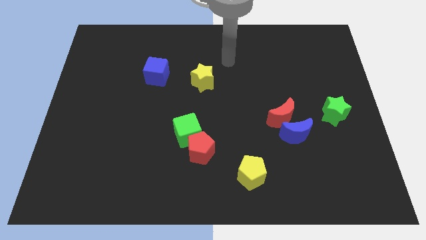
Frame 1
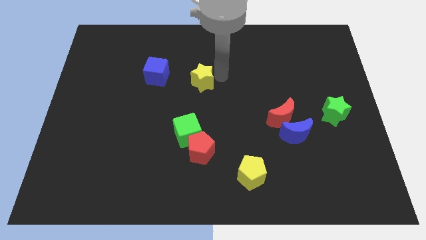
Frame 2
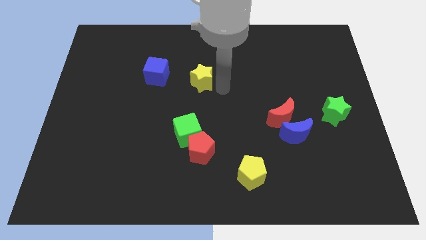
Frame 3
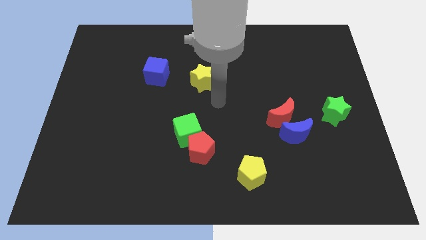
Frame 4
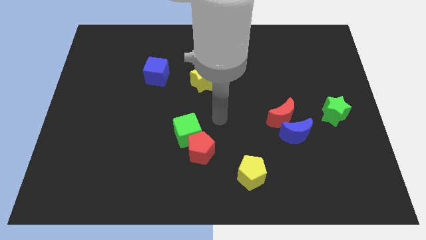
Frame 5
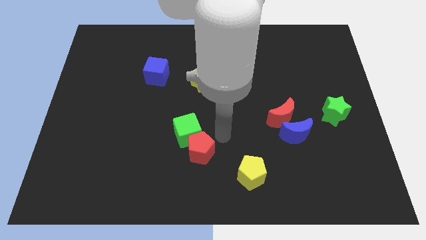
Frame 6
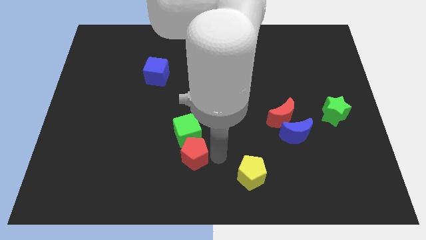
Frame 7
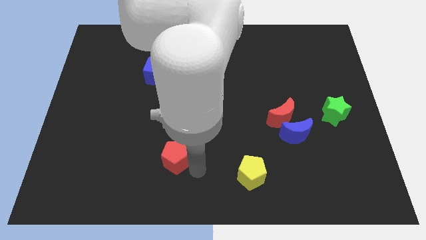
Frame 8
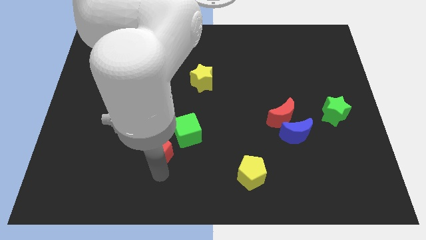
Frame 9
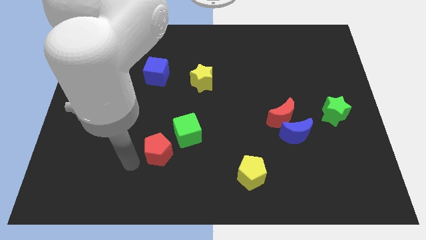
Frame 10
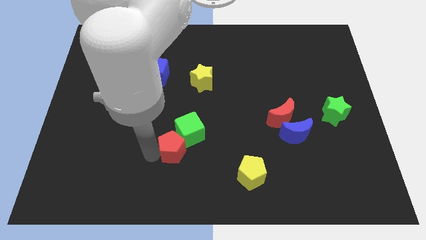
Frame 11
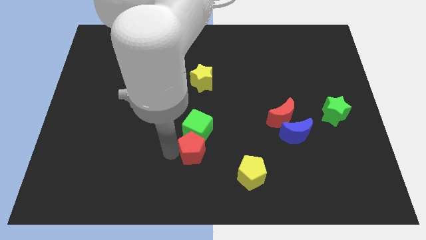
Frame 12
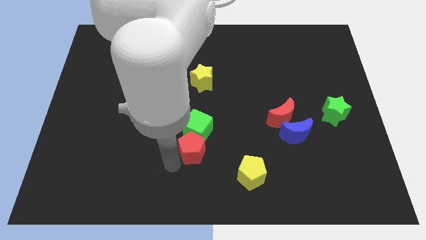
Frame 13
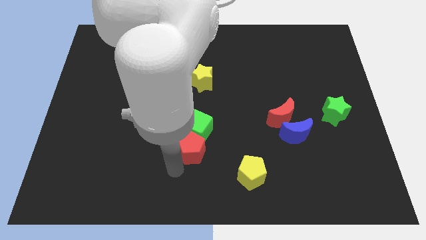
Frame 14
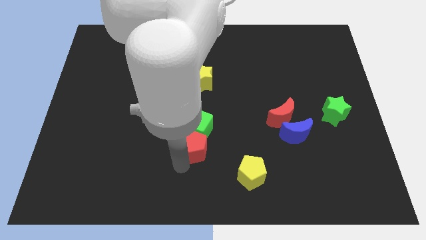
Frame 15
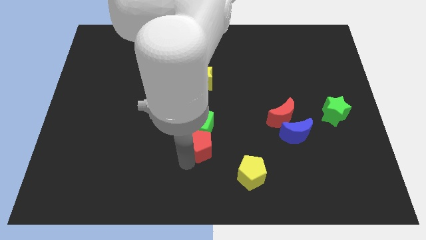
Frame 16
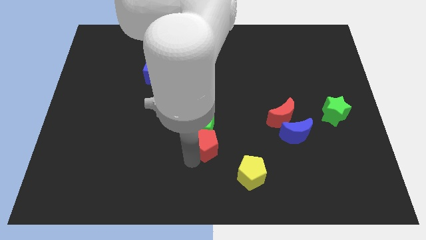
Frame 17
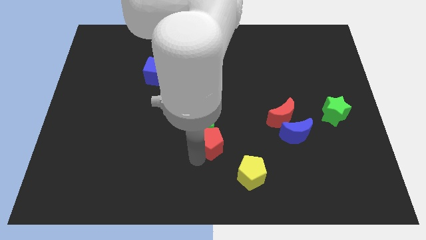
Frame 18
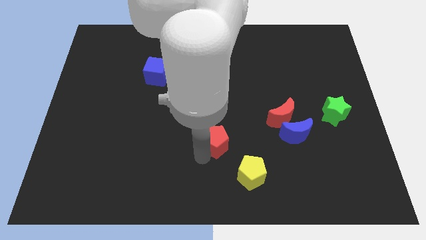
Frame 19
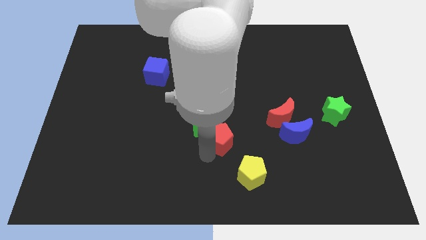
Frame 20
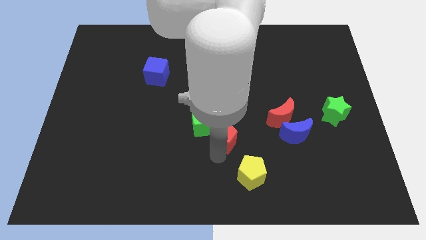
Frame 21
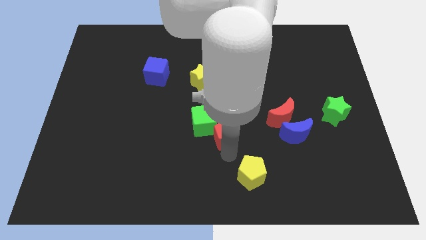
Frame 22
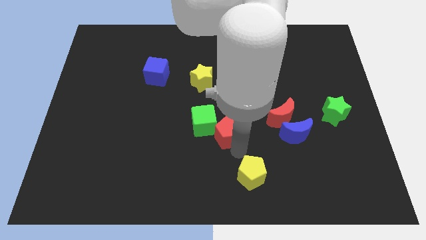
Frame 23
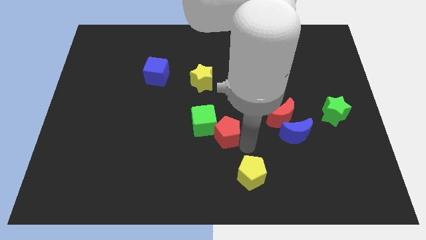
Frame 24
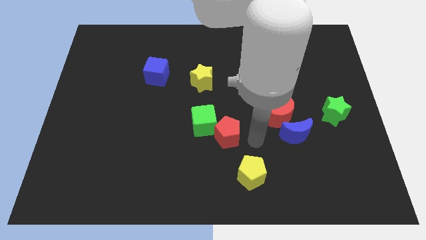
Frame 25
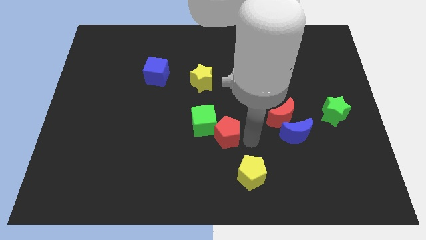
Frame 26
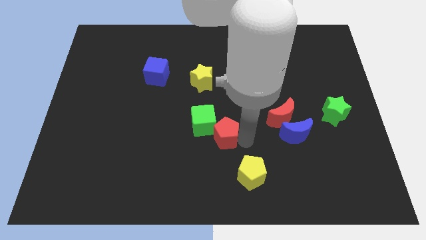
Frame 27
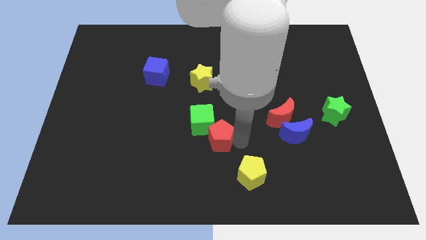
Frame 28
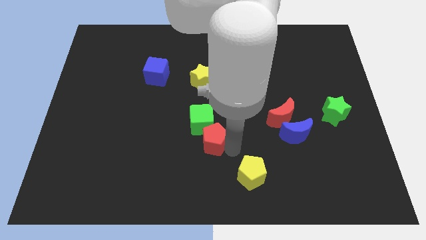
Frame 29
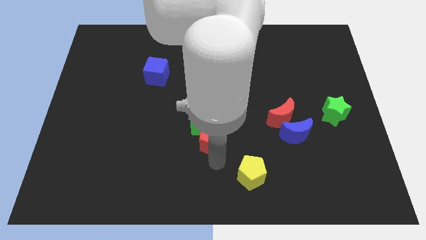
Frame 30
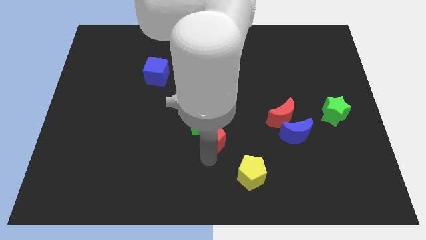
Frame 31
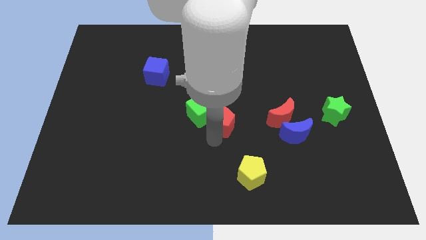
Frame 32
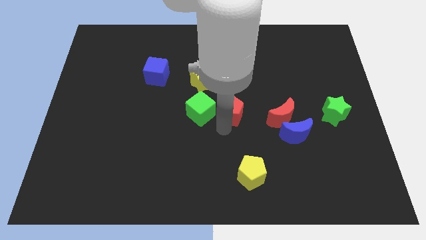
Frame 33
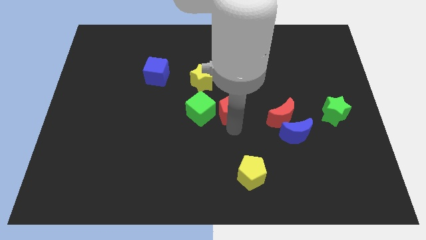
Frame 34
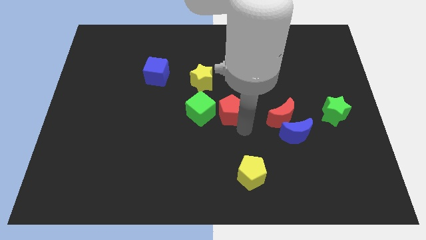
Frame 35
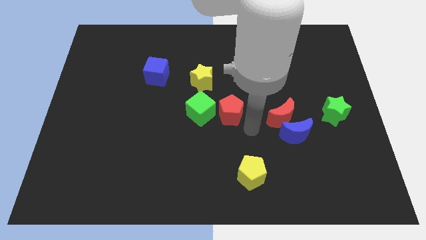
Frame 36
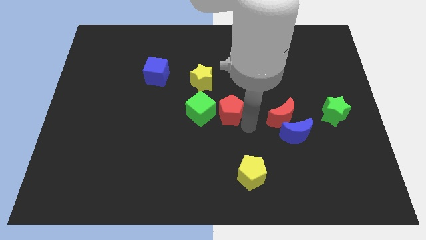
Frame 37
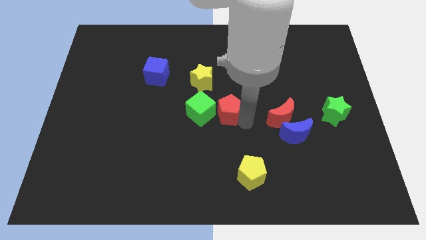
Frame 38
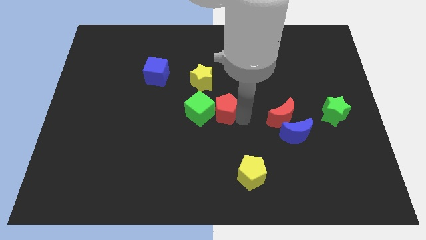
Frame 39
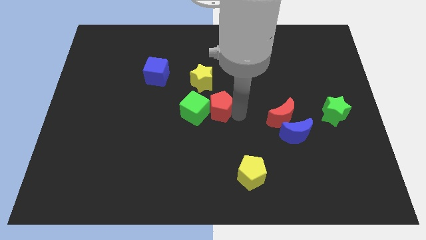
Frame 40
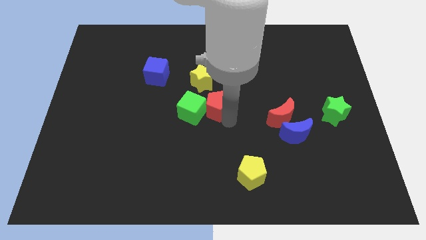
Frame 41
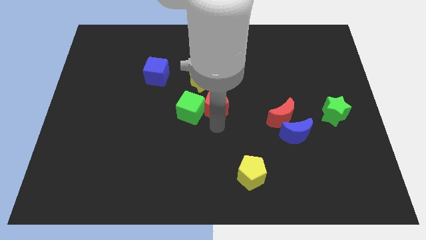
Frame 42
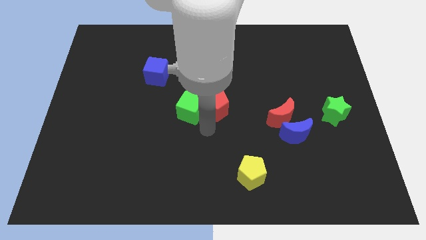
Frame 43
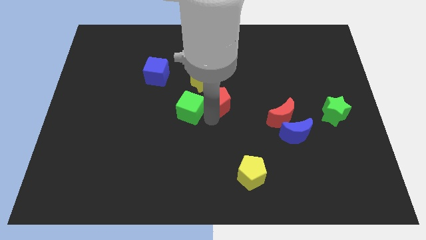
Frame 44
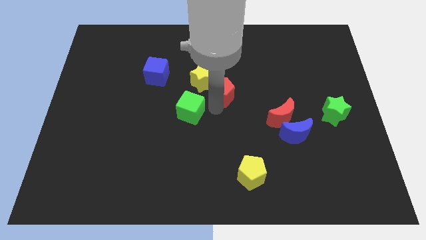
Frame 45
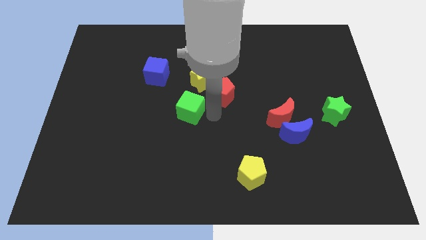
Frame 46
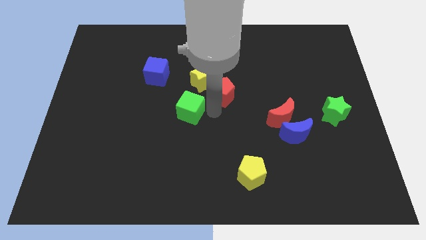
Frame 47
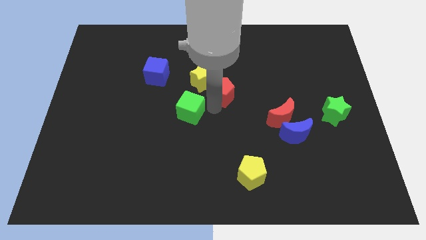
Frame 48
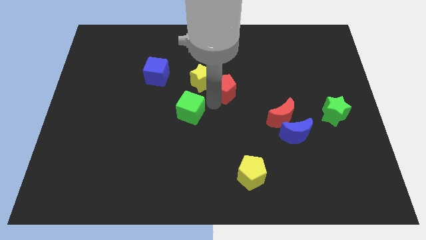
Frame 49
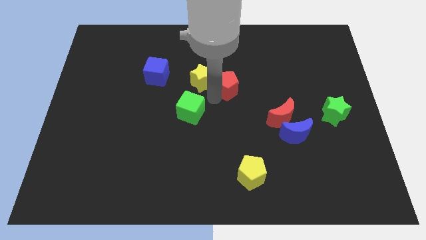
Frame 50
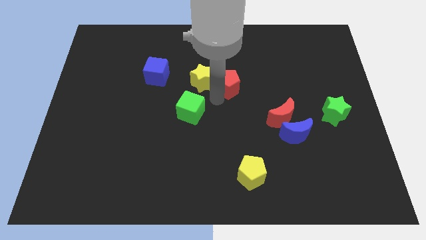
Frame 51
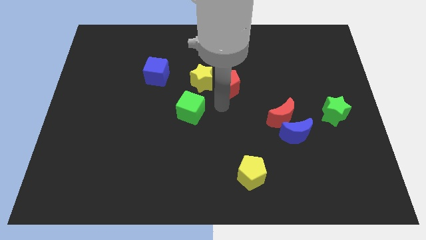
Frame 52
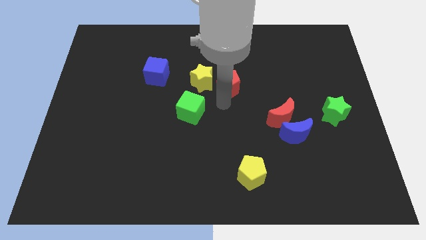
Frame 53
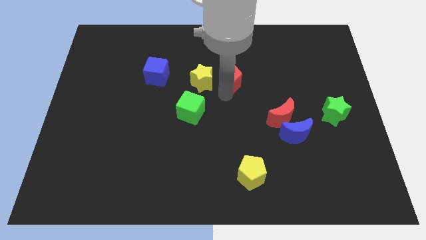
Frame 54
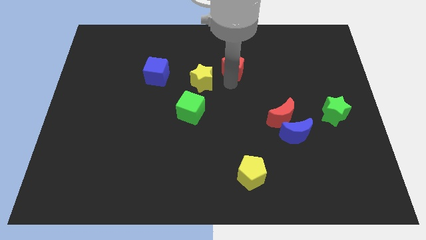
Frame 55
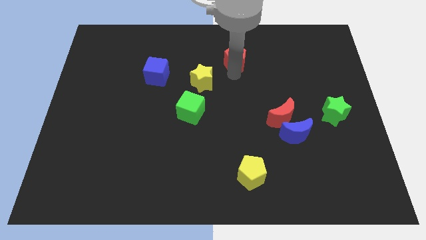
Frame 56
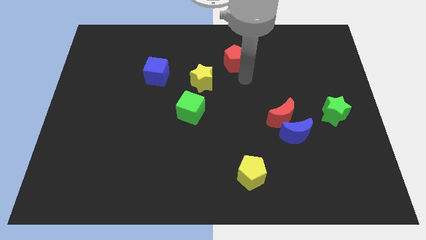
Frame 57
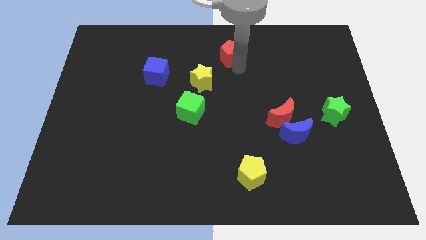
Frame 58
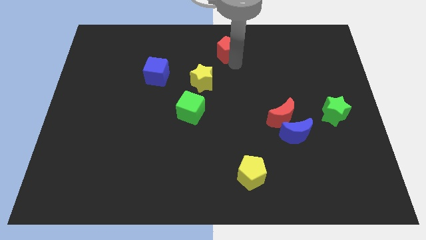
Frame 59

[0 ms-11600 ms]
push the red pentagon to the top

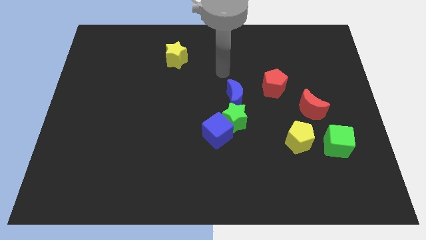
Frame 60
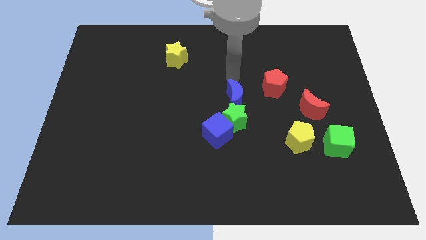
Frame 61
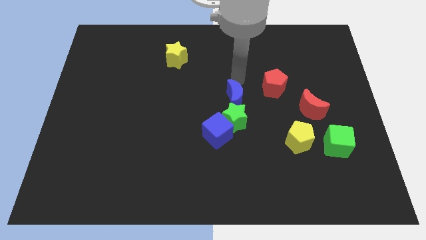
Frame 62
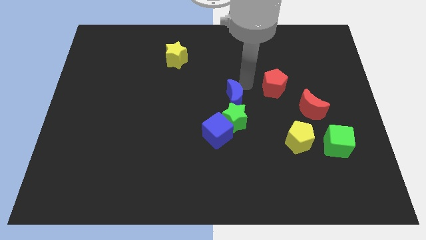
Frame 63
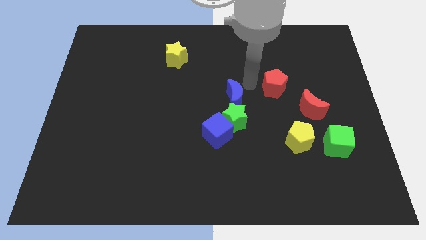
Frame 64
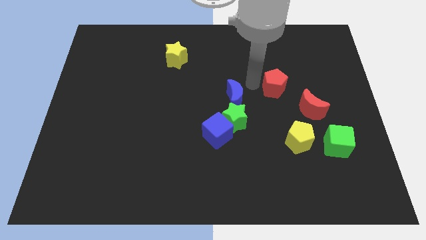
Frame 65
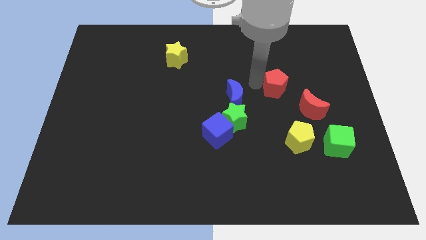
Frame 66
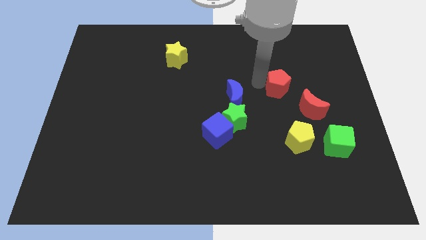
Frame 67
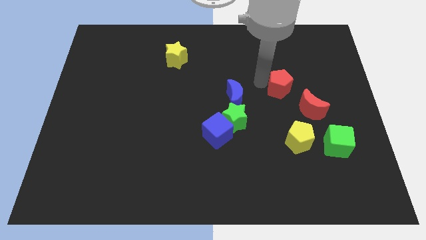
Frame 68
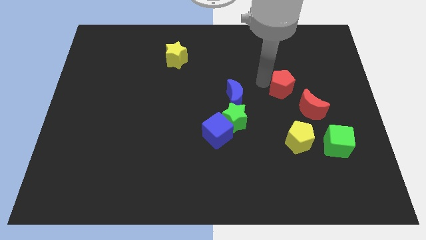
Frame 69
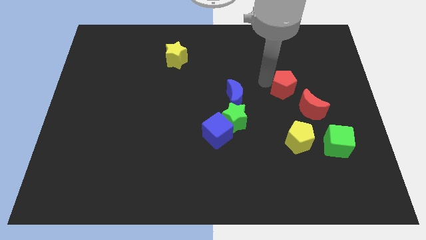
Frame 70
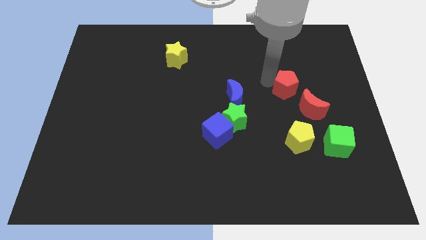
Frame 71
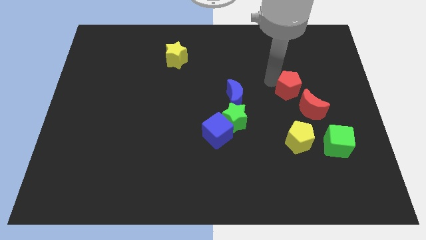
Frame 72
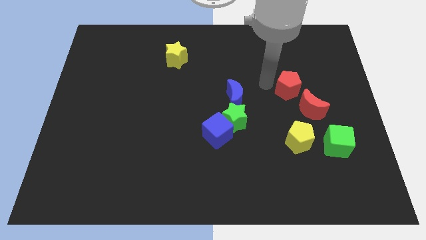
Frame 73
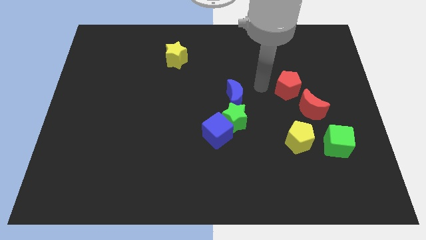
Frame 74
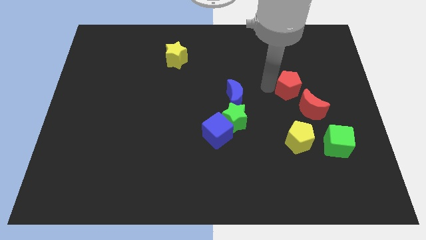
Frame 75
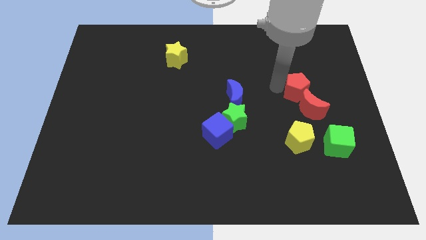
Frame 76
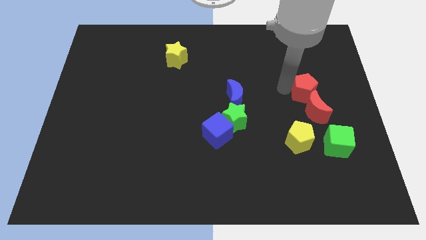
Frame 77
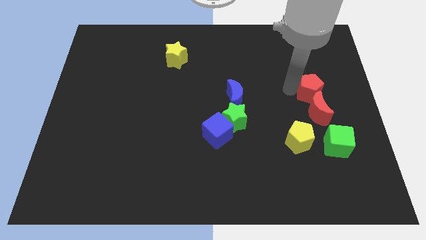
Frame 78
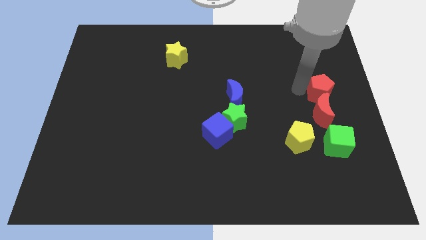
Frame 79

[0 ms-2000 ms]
slide the red pentagon to the center right

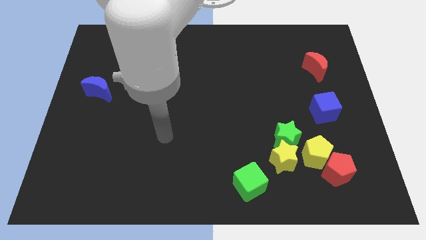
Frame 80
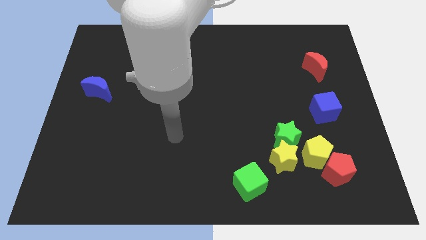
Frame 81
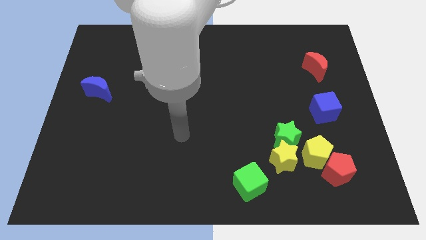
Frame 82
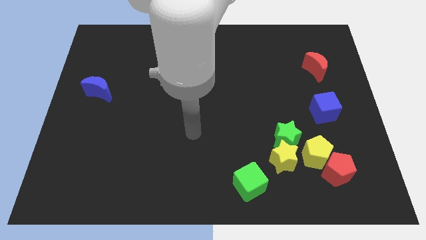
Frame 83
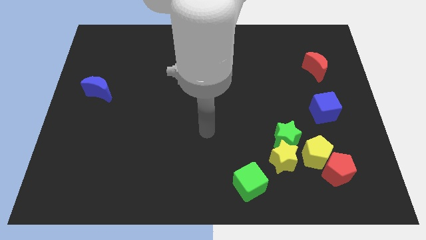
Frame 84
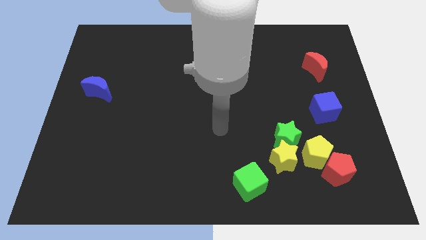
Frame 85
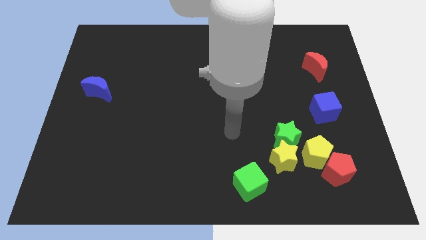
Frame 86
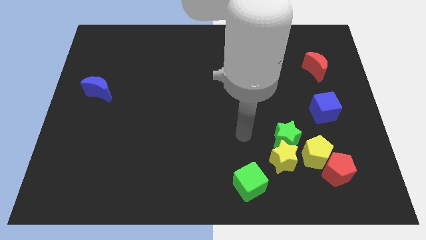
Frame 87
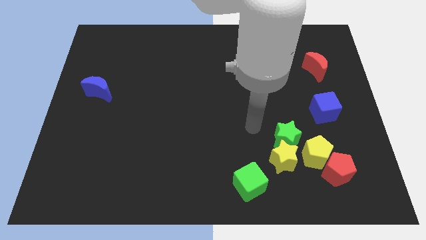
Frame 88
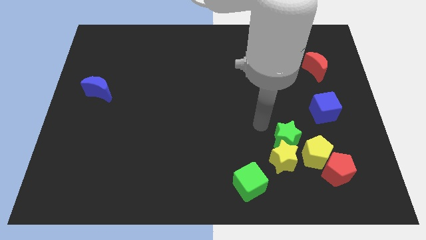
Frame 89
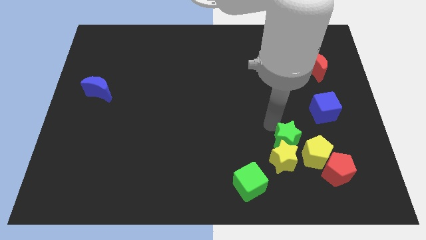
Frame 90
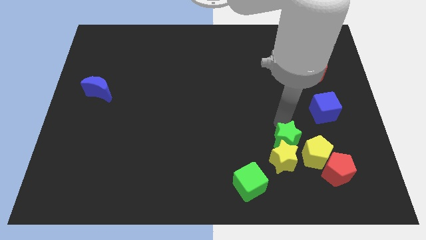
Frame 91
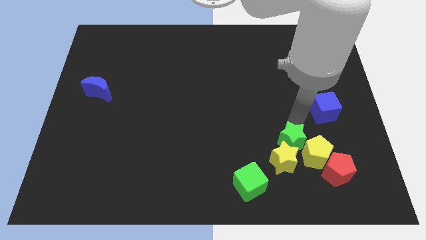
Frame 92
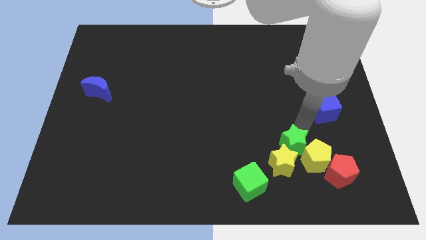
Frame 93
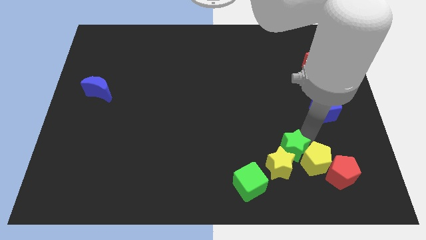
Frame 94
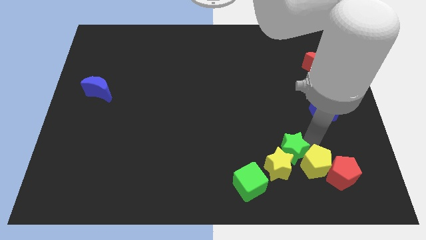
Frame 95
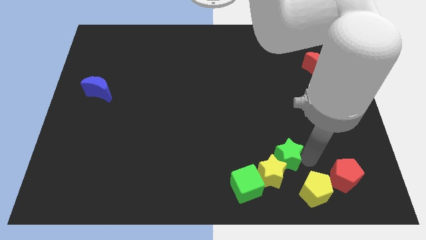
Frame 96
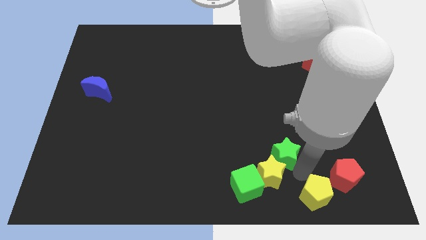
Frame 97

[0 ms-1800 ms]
put the yellow star to the bottom side
